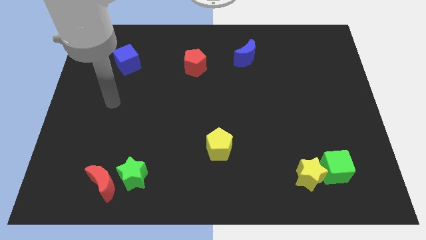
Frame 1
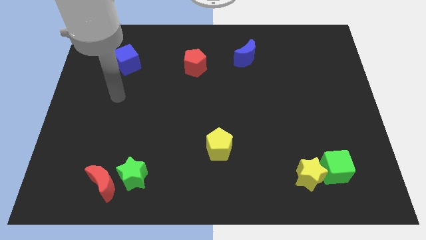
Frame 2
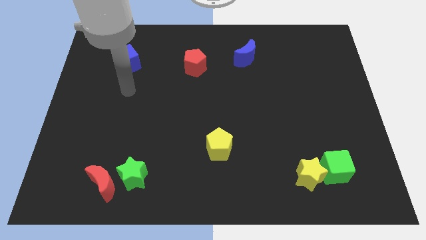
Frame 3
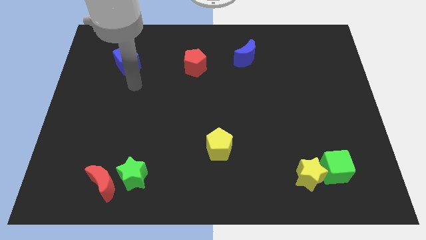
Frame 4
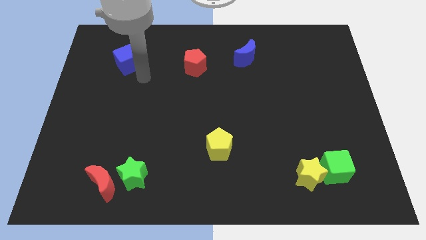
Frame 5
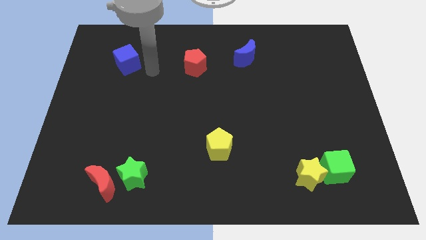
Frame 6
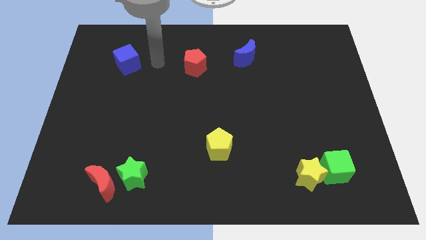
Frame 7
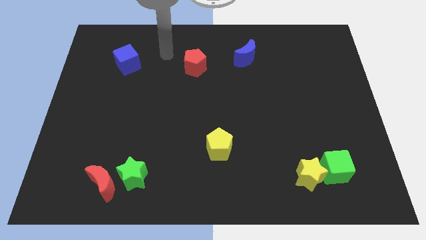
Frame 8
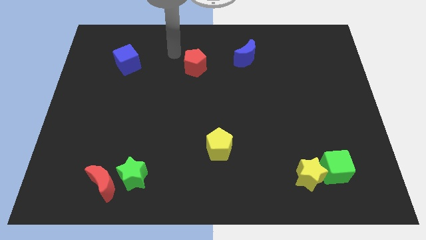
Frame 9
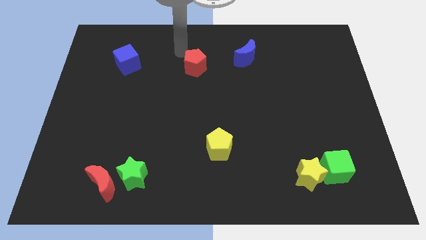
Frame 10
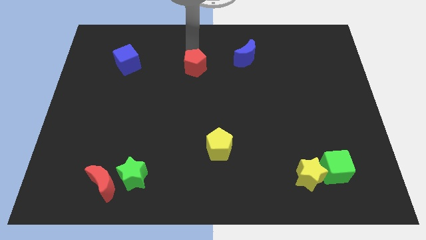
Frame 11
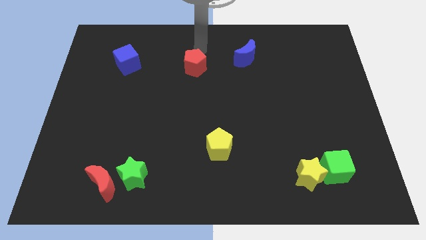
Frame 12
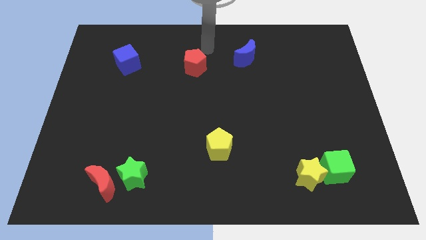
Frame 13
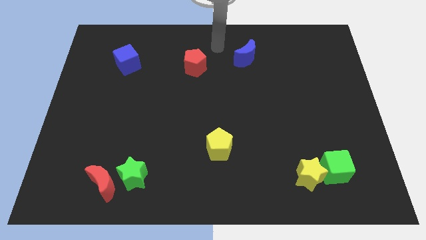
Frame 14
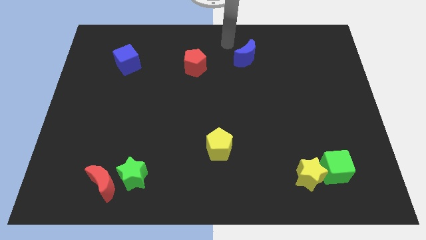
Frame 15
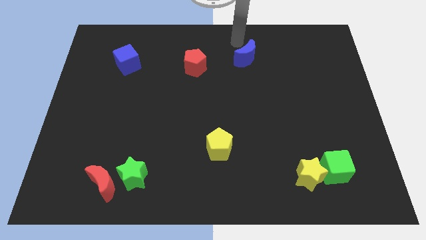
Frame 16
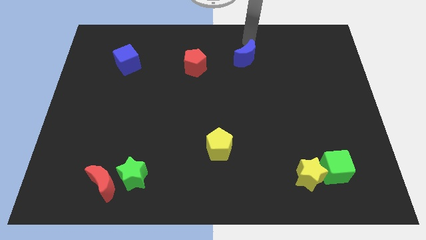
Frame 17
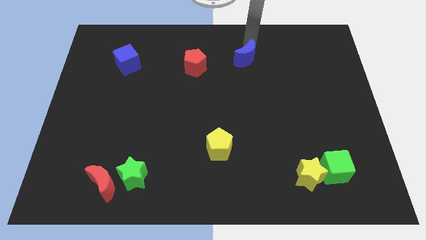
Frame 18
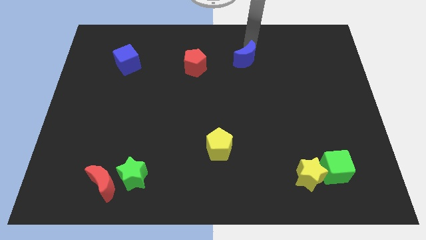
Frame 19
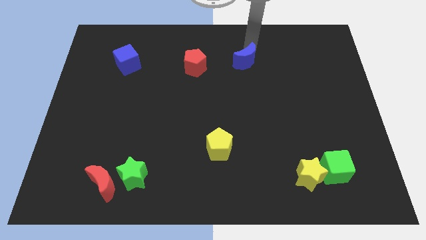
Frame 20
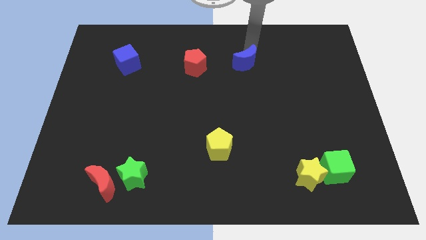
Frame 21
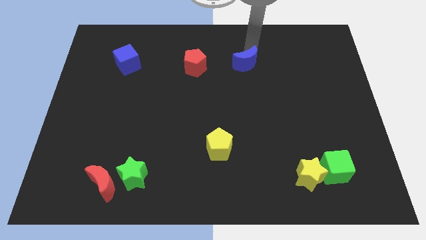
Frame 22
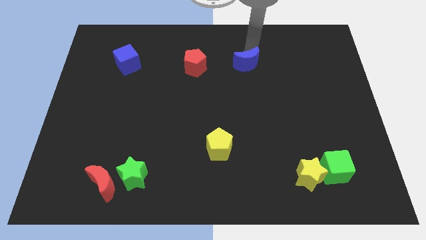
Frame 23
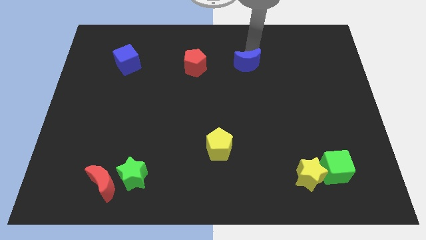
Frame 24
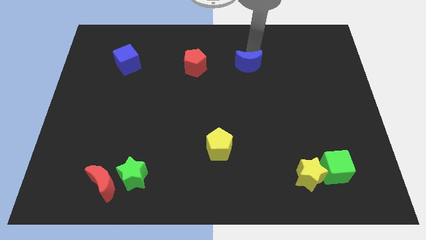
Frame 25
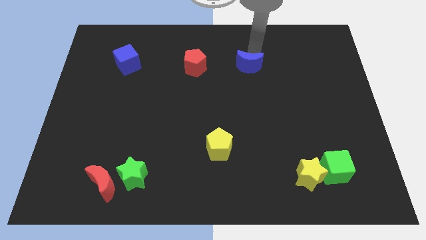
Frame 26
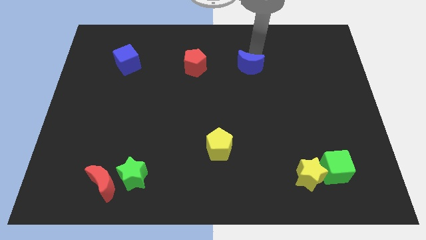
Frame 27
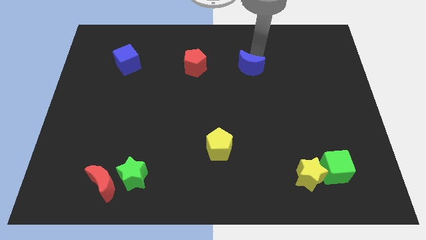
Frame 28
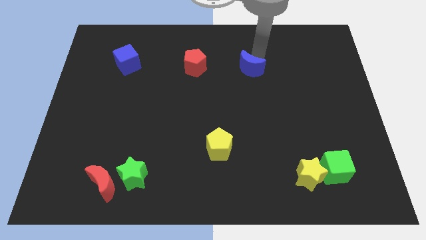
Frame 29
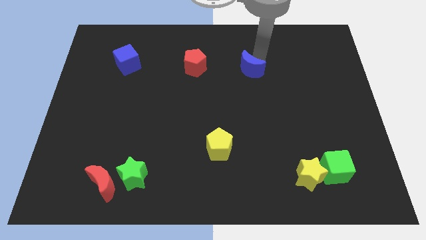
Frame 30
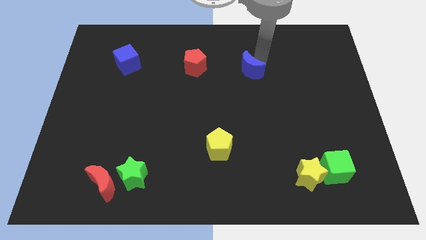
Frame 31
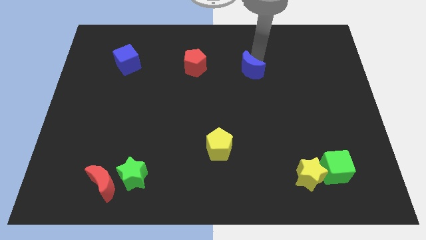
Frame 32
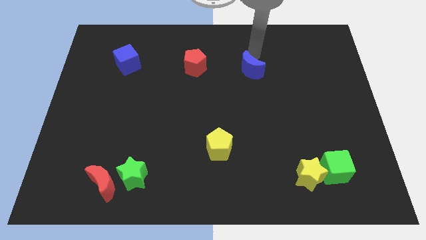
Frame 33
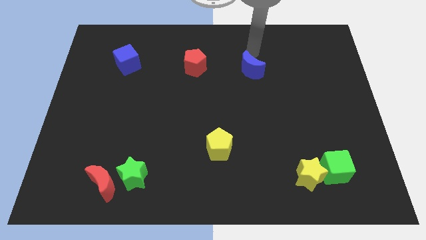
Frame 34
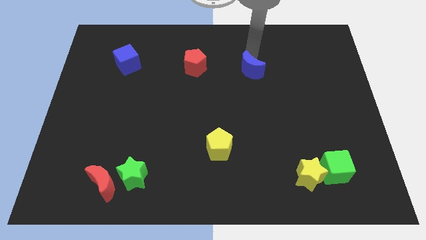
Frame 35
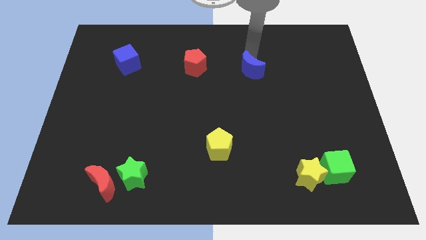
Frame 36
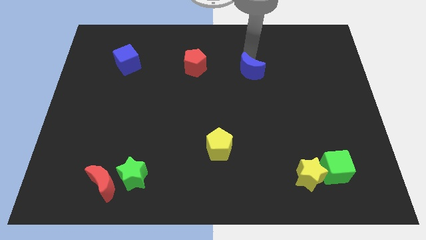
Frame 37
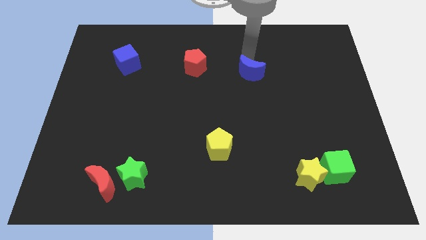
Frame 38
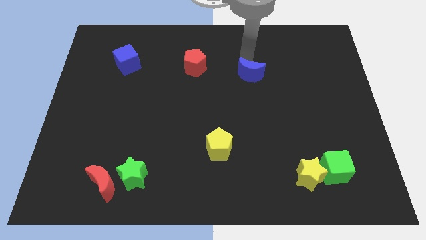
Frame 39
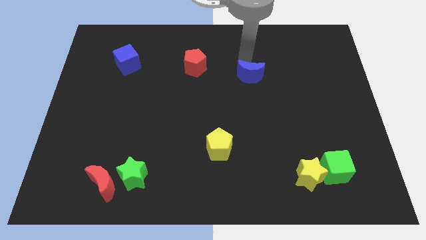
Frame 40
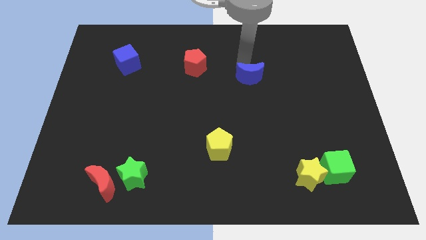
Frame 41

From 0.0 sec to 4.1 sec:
move the blue moon a little bit downwards

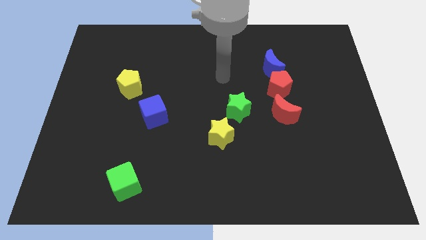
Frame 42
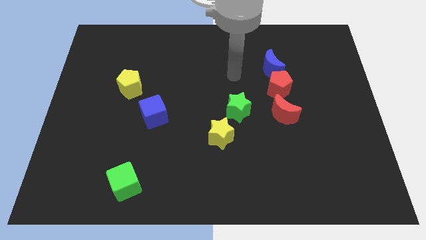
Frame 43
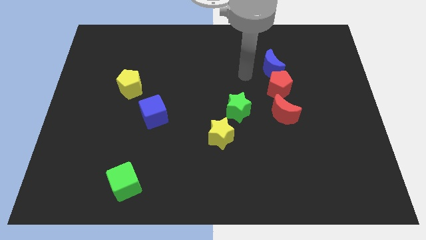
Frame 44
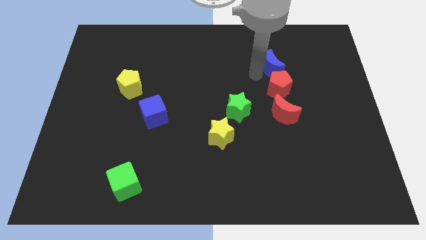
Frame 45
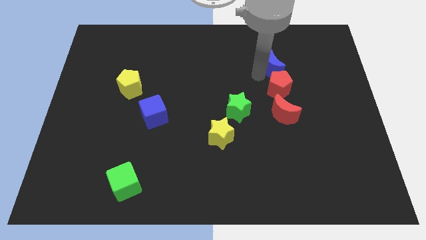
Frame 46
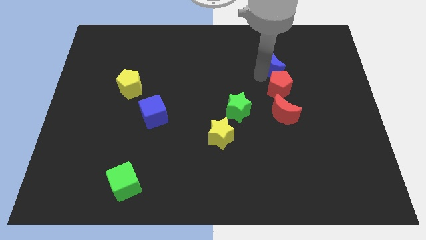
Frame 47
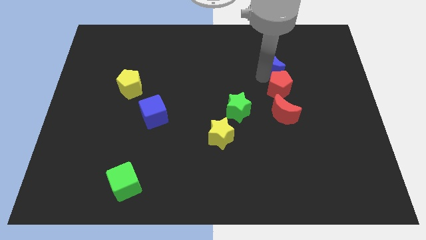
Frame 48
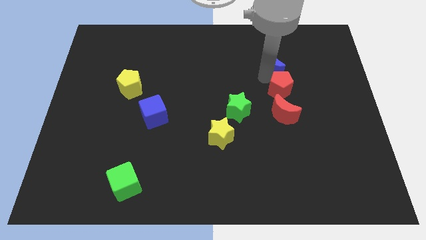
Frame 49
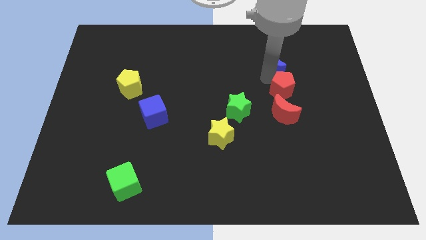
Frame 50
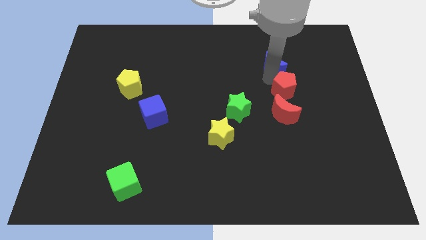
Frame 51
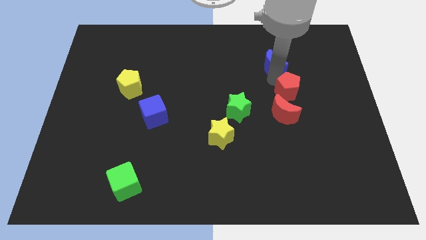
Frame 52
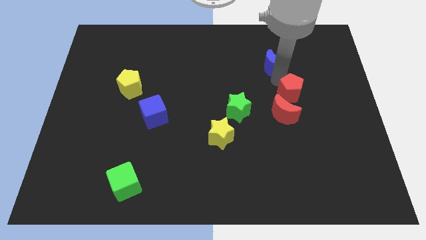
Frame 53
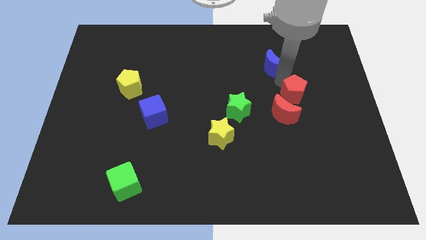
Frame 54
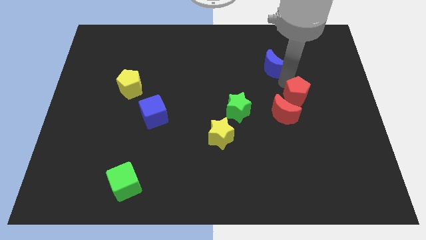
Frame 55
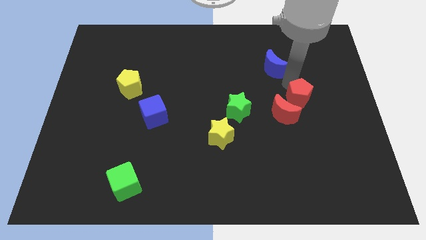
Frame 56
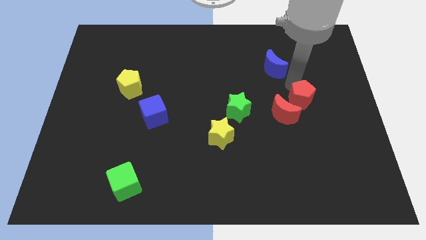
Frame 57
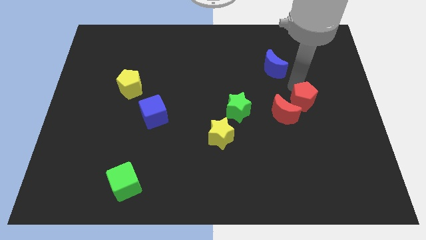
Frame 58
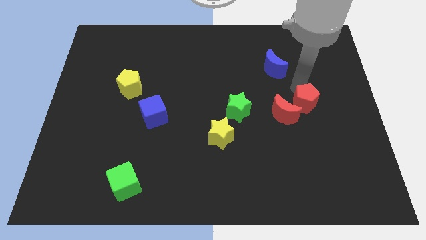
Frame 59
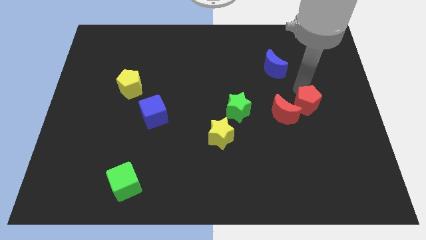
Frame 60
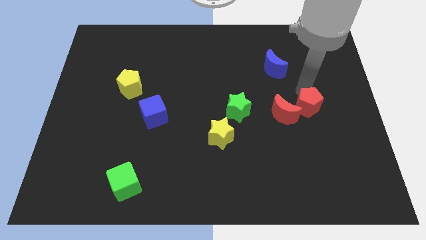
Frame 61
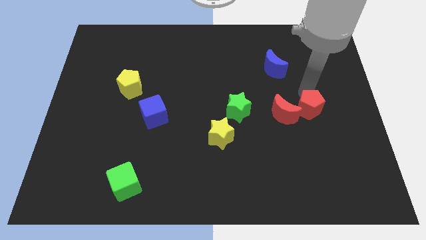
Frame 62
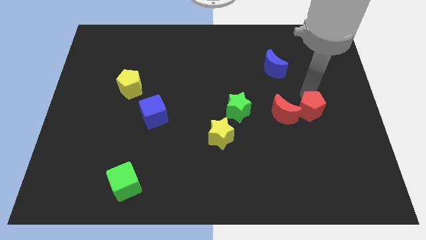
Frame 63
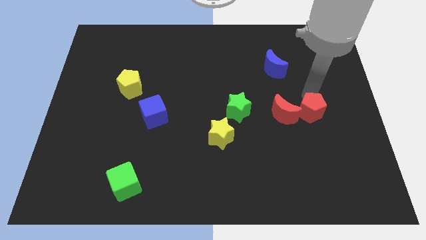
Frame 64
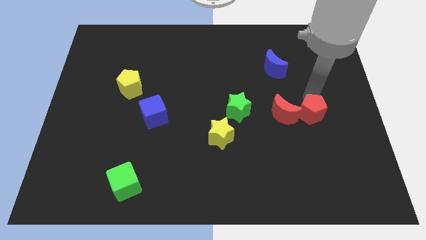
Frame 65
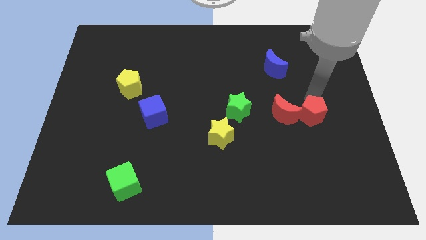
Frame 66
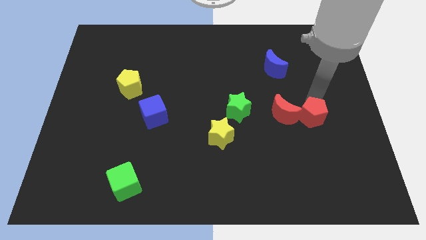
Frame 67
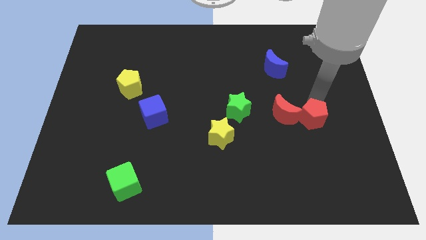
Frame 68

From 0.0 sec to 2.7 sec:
slightly move the red pentagon downwards

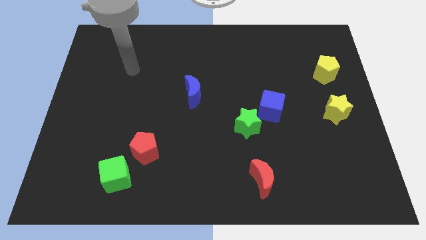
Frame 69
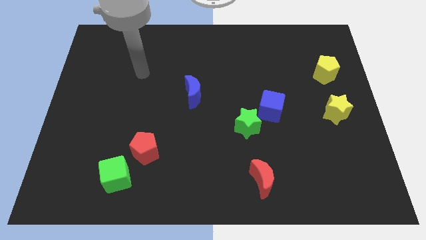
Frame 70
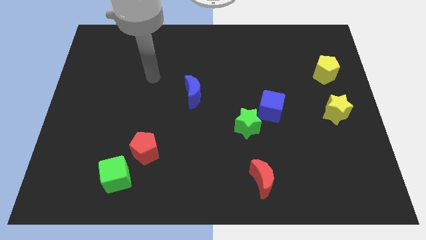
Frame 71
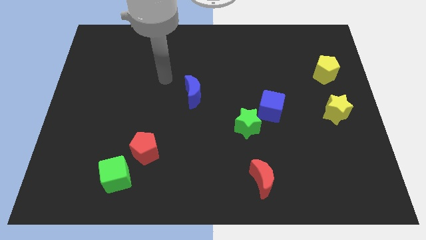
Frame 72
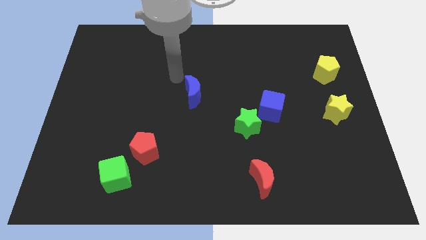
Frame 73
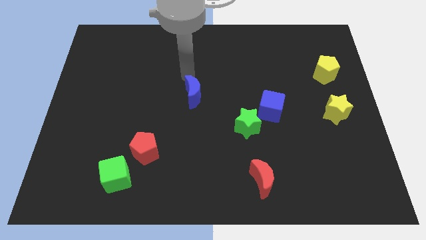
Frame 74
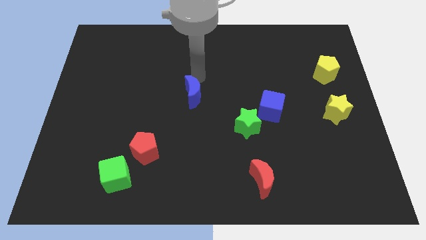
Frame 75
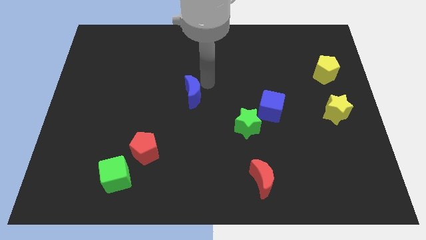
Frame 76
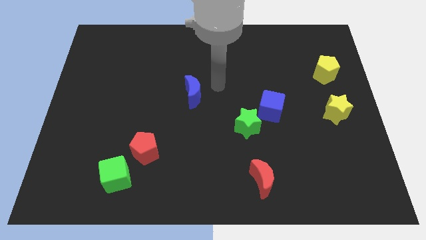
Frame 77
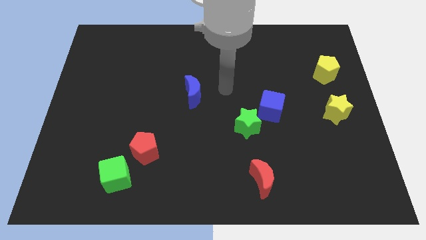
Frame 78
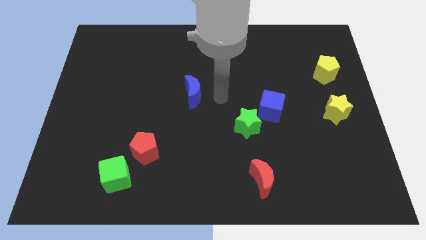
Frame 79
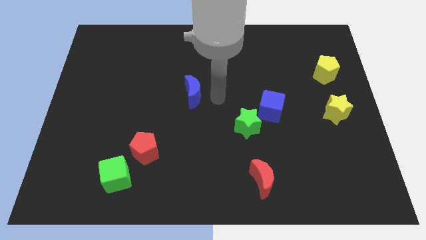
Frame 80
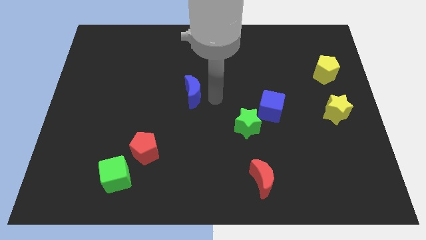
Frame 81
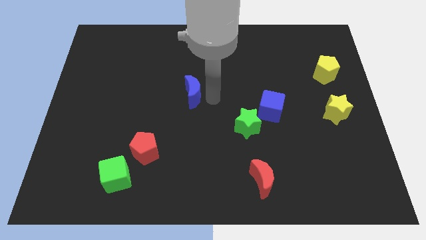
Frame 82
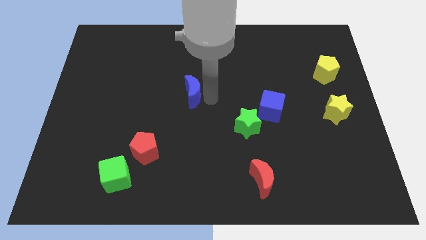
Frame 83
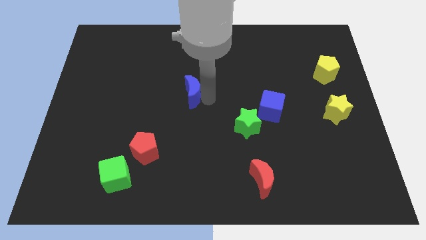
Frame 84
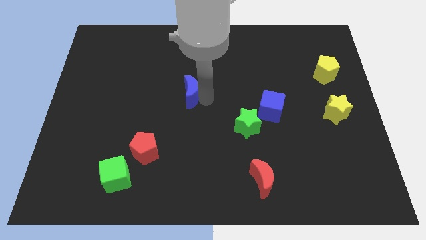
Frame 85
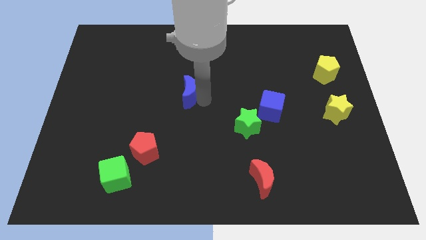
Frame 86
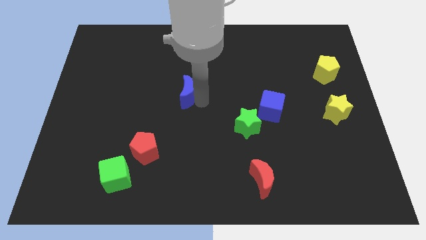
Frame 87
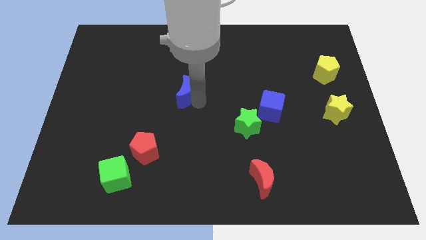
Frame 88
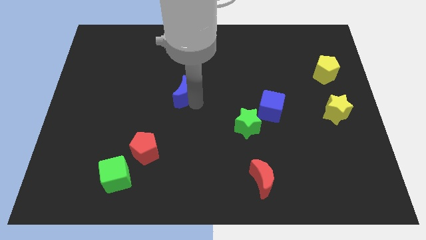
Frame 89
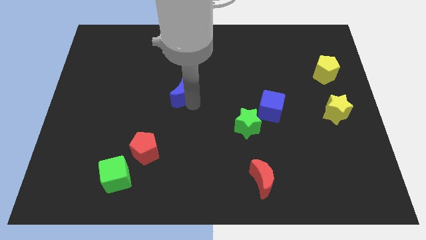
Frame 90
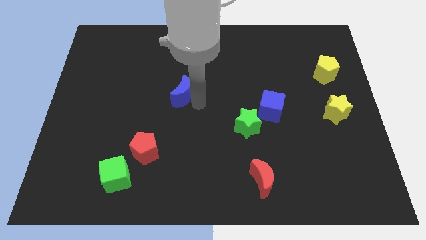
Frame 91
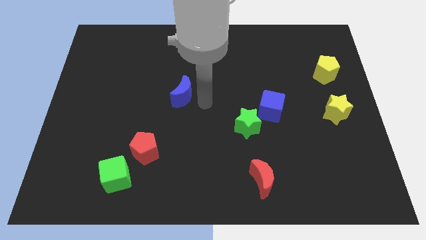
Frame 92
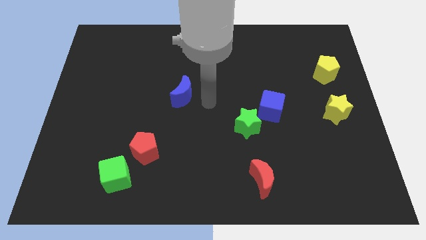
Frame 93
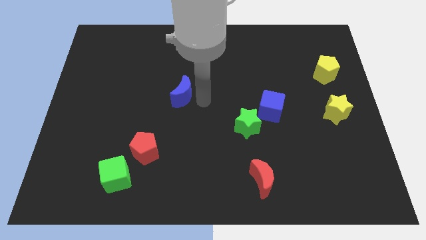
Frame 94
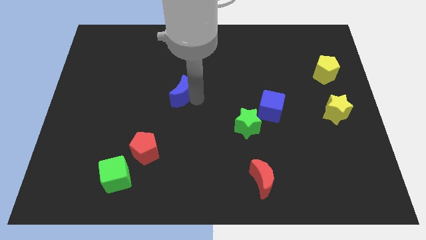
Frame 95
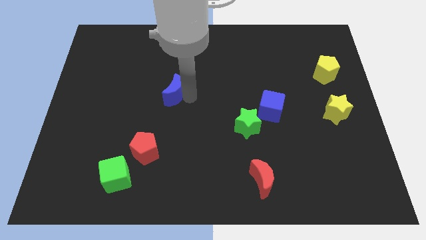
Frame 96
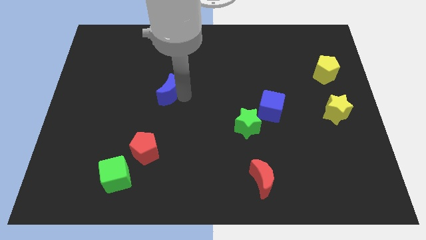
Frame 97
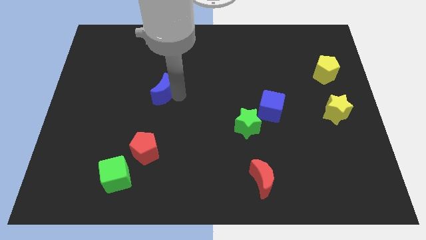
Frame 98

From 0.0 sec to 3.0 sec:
move the blue moon slightly to the left
